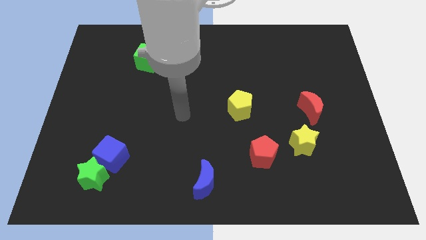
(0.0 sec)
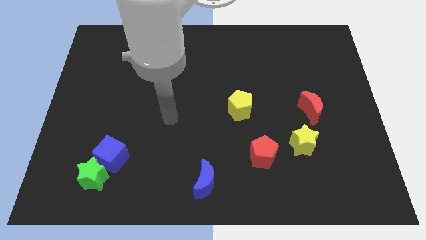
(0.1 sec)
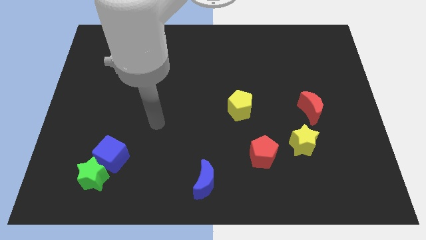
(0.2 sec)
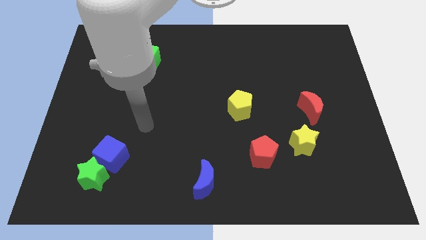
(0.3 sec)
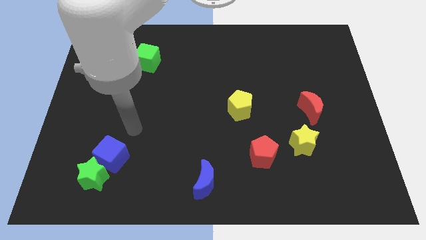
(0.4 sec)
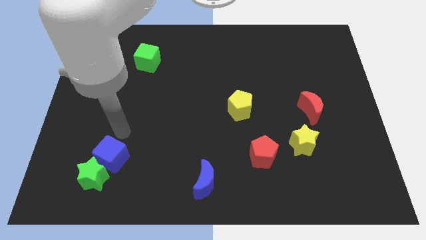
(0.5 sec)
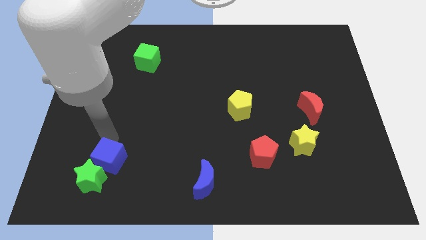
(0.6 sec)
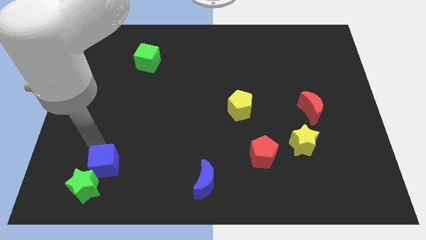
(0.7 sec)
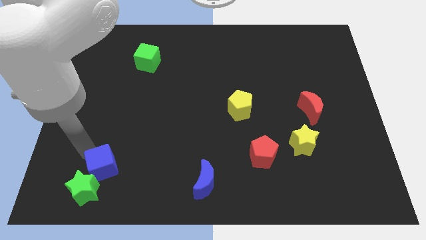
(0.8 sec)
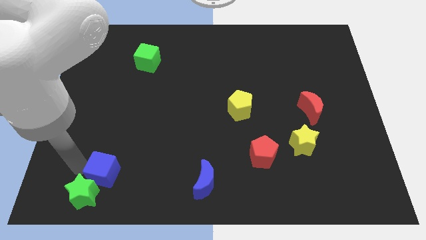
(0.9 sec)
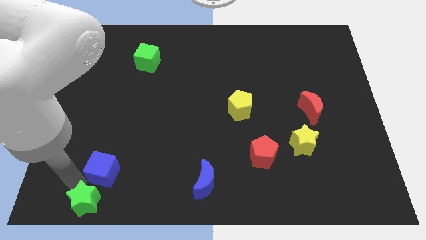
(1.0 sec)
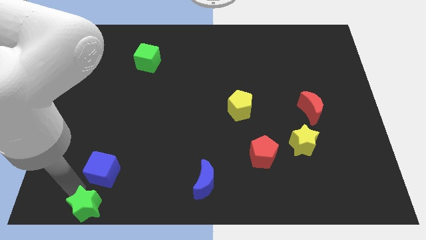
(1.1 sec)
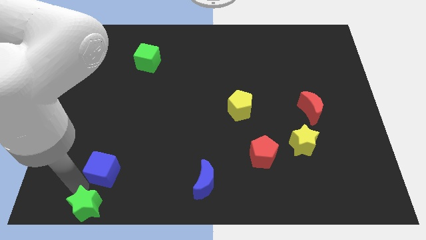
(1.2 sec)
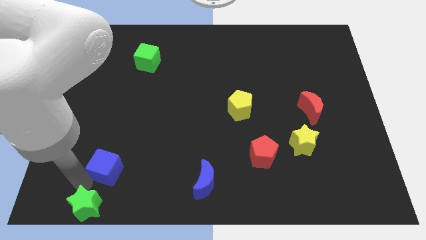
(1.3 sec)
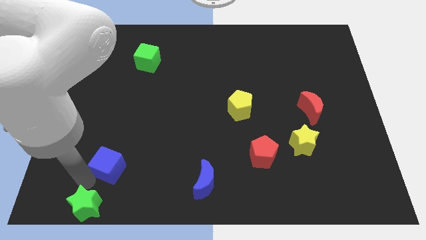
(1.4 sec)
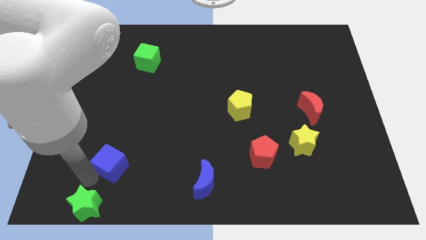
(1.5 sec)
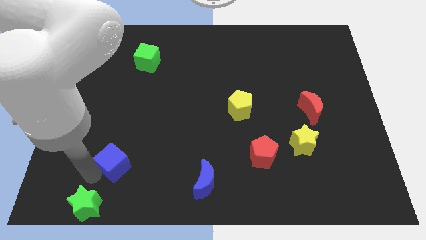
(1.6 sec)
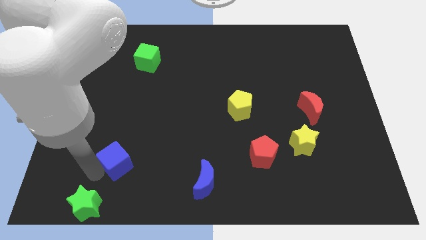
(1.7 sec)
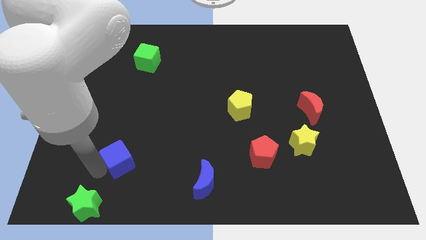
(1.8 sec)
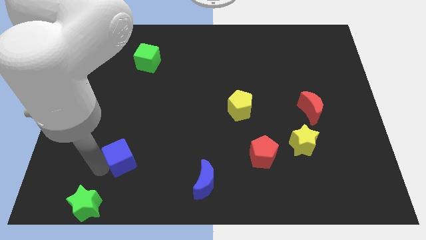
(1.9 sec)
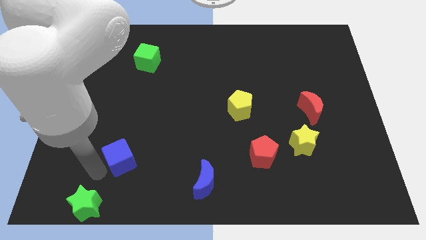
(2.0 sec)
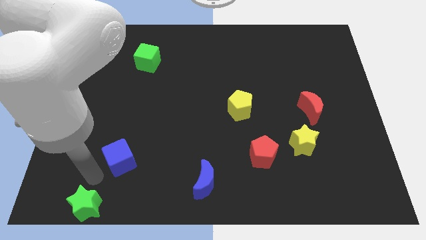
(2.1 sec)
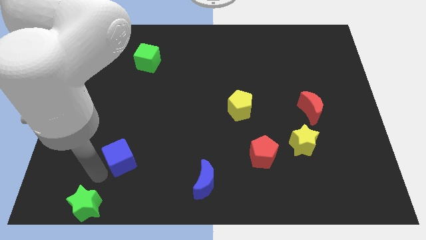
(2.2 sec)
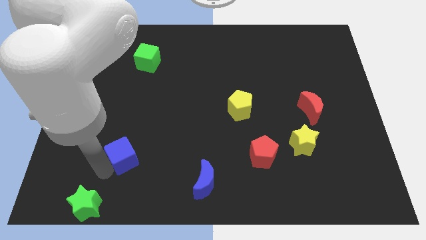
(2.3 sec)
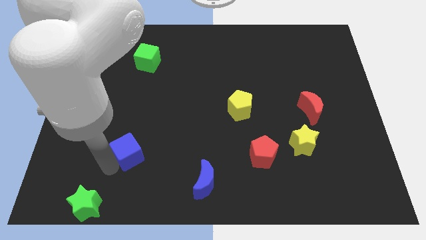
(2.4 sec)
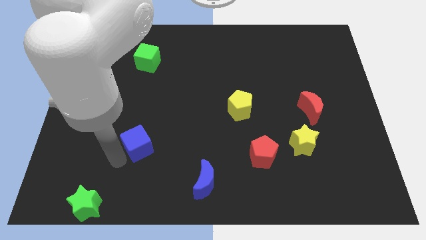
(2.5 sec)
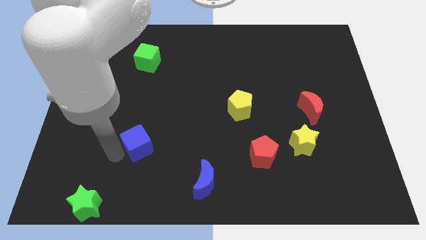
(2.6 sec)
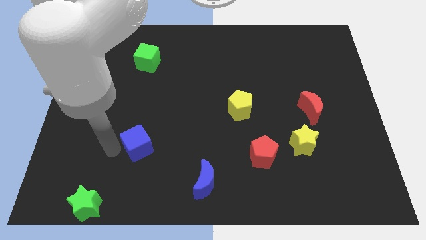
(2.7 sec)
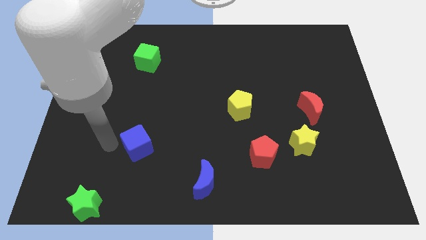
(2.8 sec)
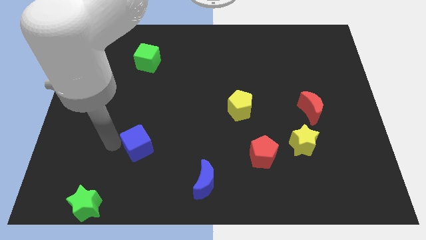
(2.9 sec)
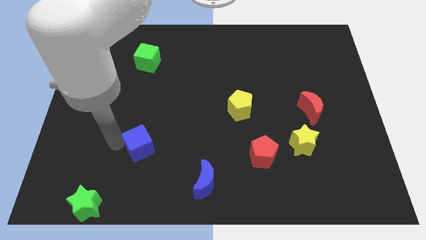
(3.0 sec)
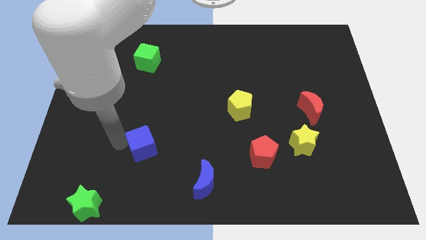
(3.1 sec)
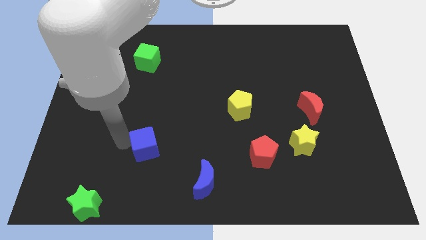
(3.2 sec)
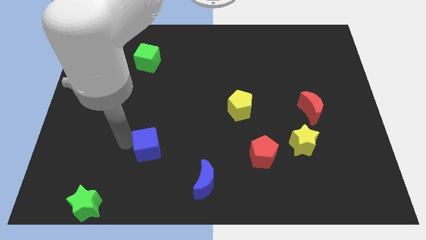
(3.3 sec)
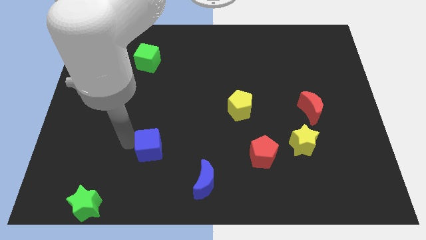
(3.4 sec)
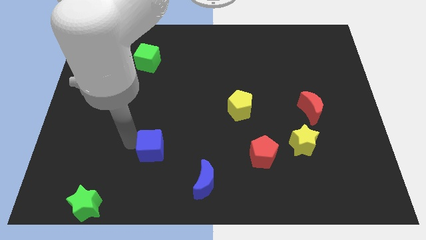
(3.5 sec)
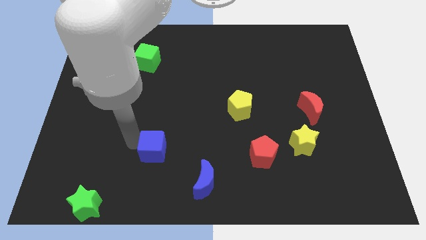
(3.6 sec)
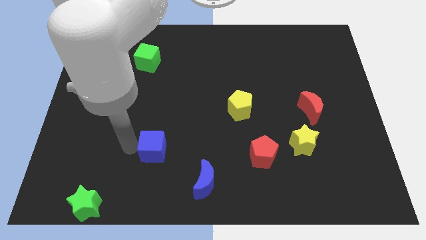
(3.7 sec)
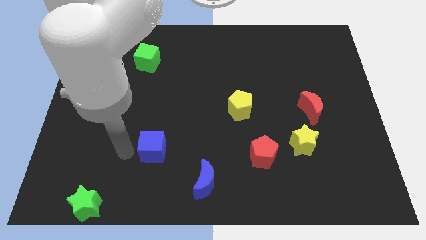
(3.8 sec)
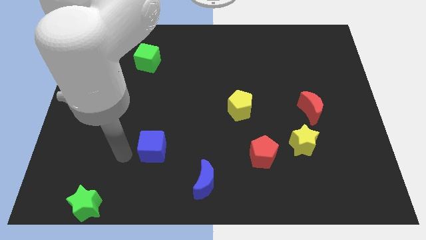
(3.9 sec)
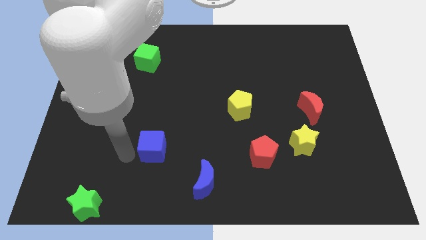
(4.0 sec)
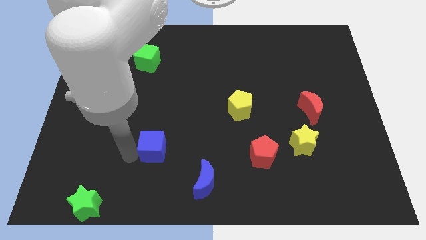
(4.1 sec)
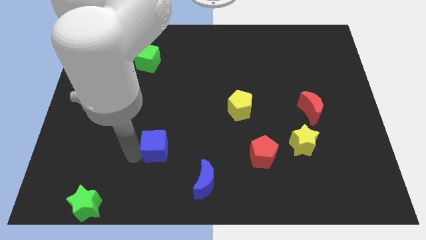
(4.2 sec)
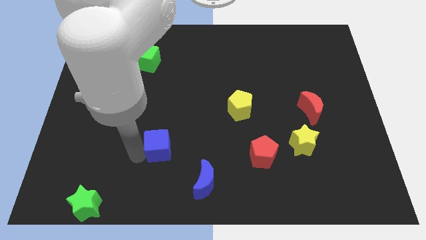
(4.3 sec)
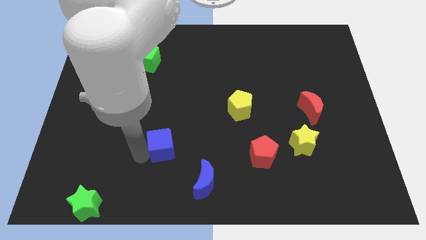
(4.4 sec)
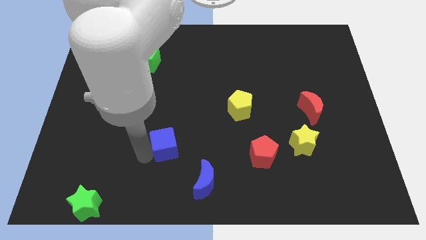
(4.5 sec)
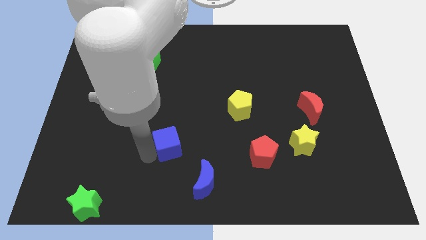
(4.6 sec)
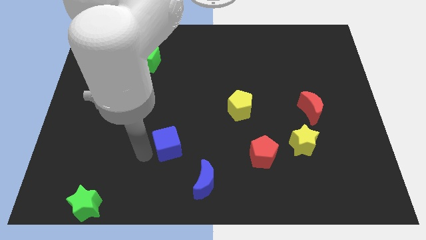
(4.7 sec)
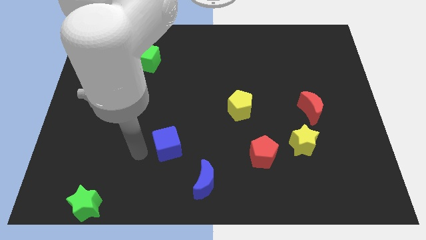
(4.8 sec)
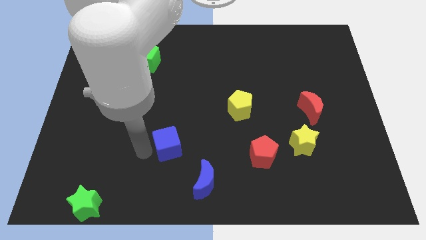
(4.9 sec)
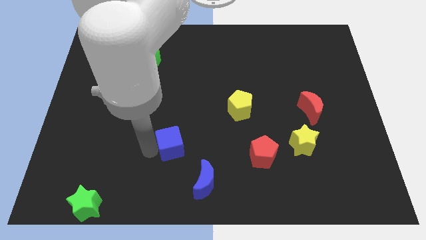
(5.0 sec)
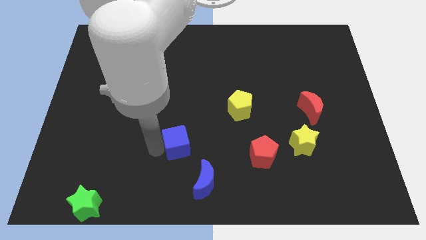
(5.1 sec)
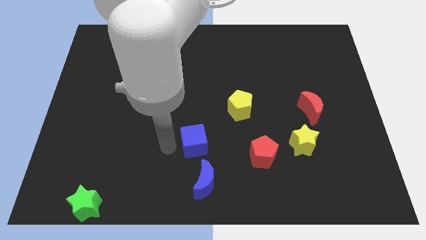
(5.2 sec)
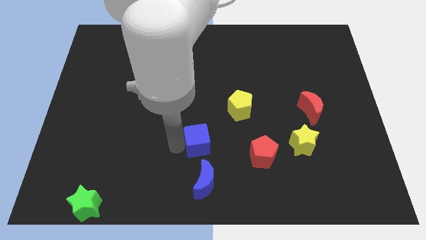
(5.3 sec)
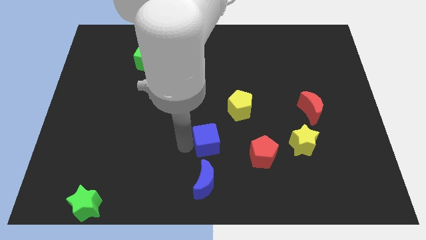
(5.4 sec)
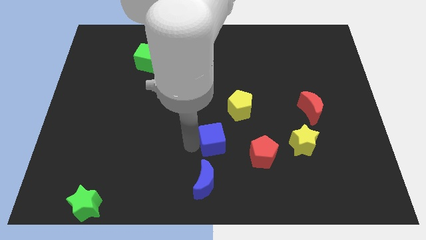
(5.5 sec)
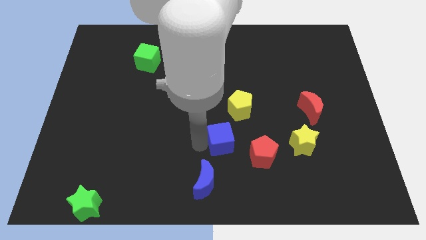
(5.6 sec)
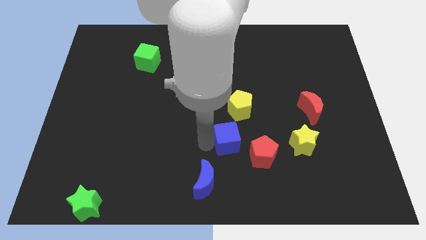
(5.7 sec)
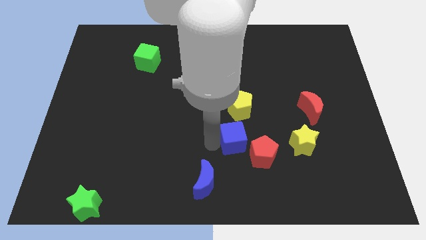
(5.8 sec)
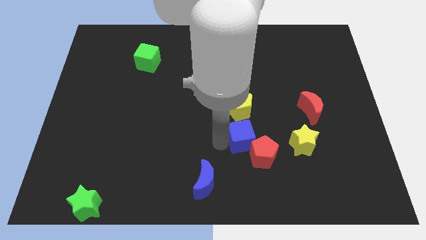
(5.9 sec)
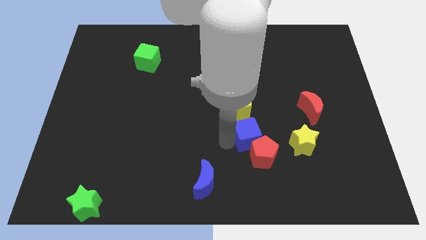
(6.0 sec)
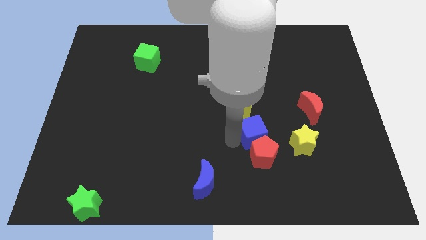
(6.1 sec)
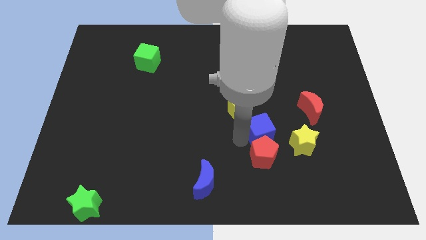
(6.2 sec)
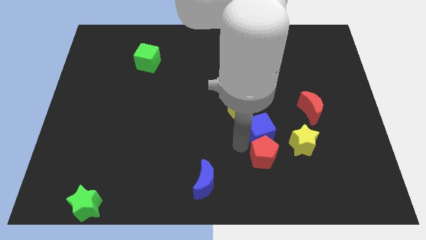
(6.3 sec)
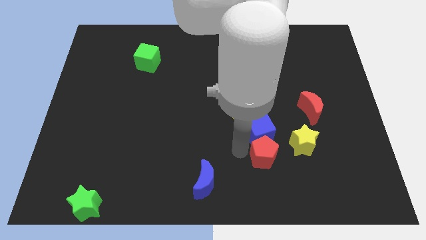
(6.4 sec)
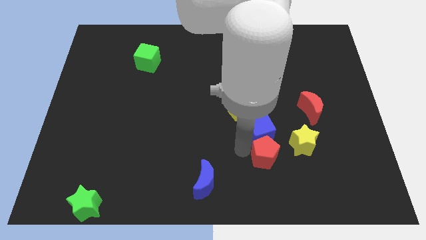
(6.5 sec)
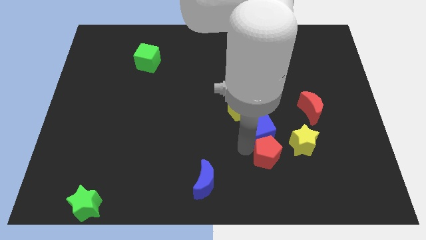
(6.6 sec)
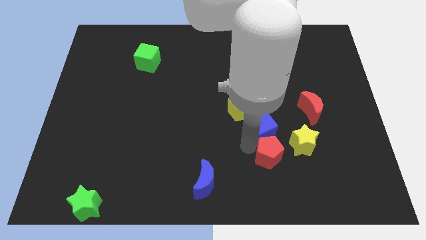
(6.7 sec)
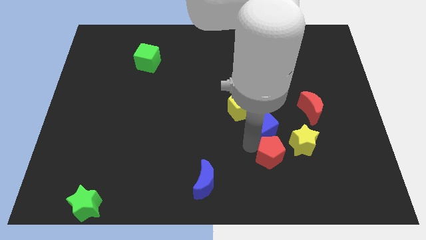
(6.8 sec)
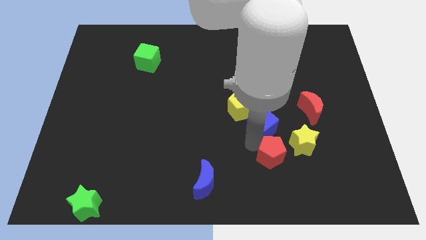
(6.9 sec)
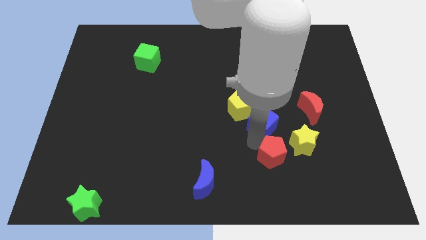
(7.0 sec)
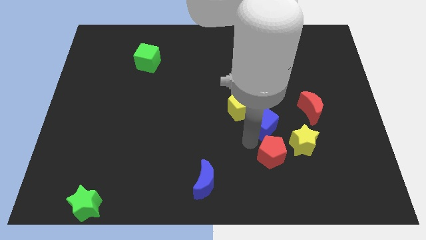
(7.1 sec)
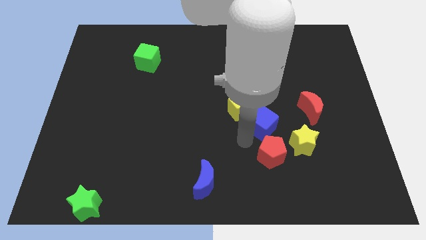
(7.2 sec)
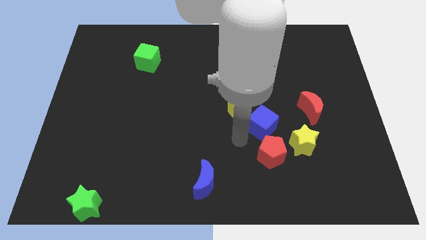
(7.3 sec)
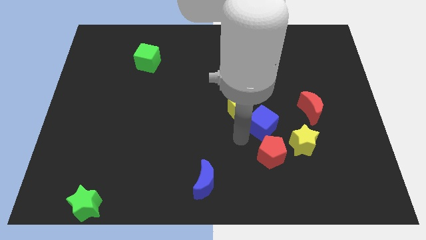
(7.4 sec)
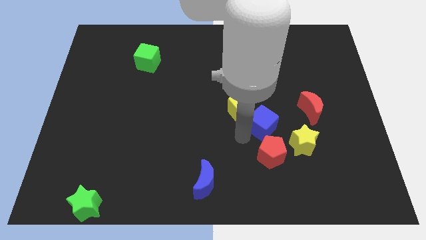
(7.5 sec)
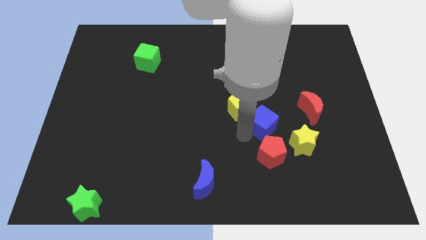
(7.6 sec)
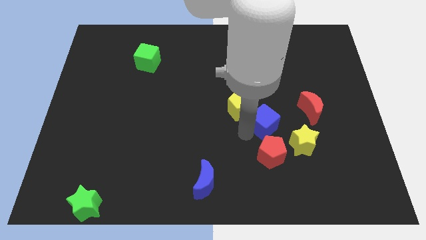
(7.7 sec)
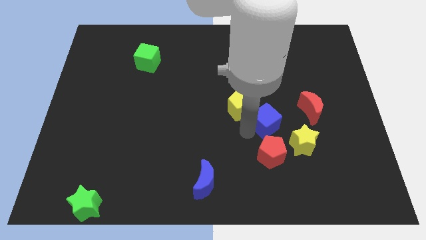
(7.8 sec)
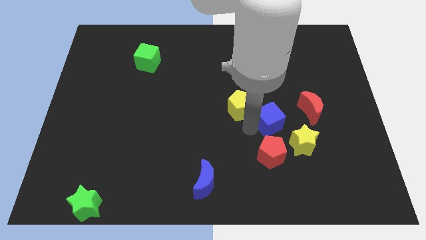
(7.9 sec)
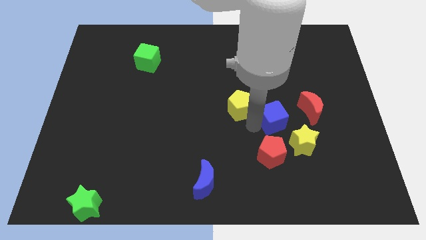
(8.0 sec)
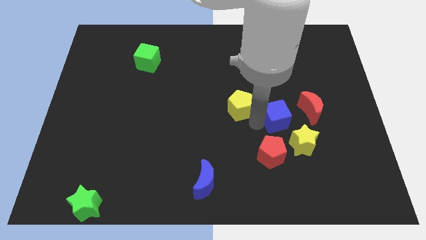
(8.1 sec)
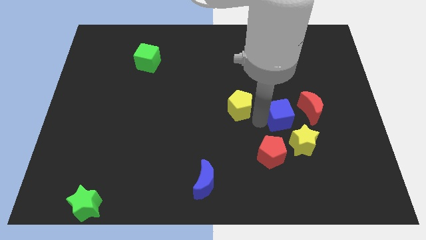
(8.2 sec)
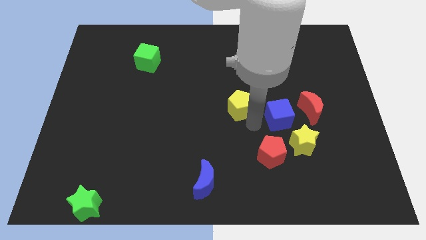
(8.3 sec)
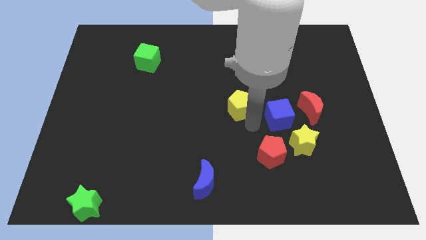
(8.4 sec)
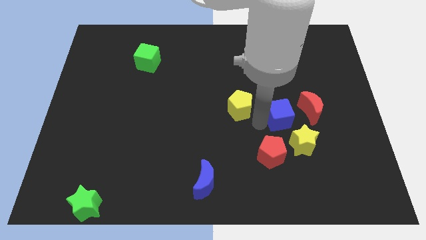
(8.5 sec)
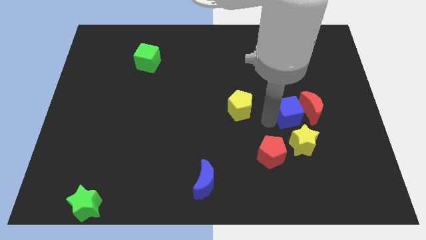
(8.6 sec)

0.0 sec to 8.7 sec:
move the blue cube close to the red moon
